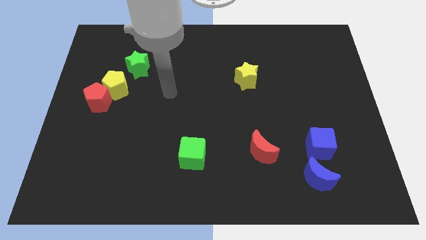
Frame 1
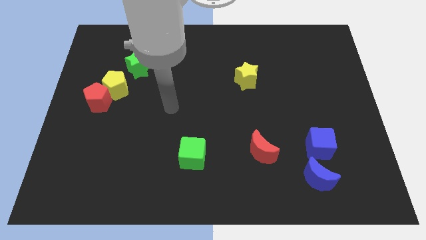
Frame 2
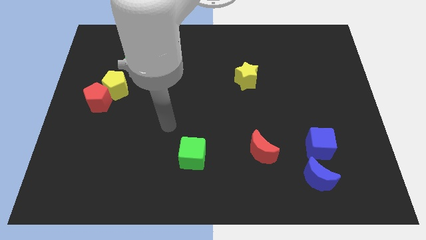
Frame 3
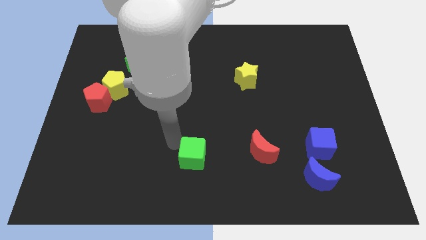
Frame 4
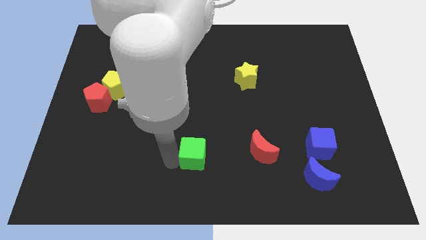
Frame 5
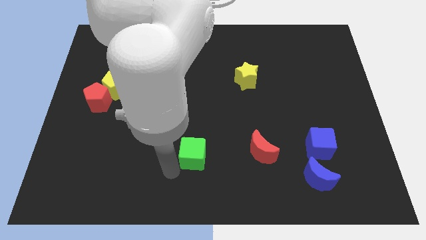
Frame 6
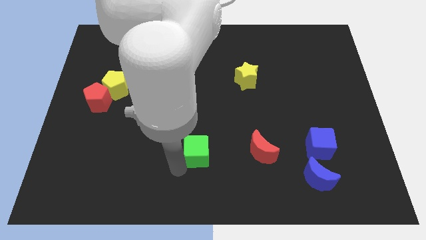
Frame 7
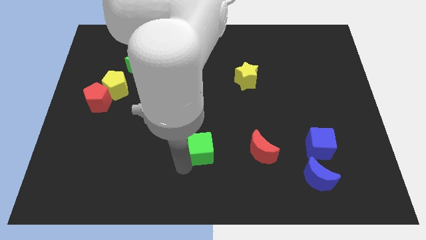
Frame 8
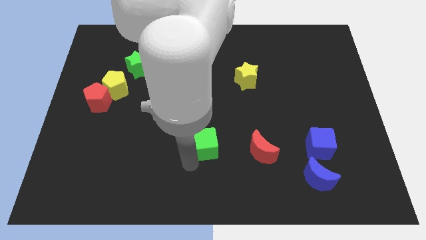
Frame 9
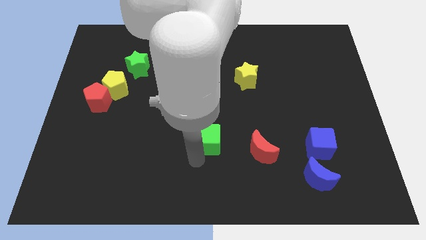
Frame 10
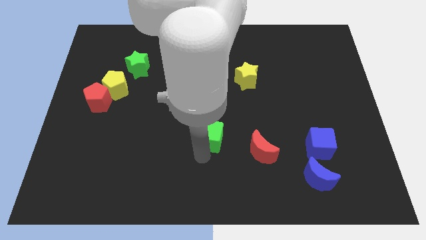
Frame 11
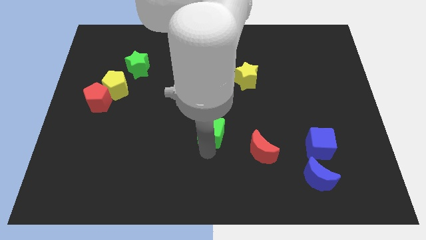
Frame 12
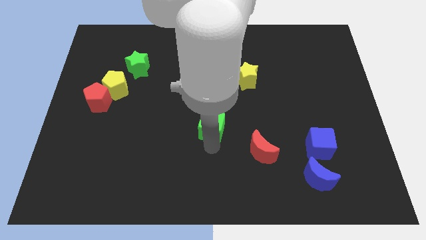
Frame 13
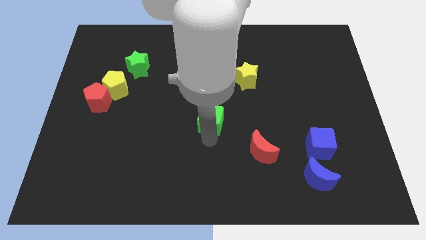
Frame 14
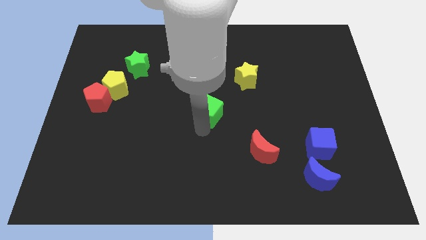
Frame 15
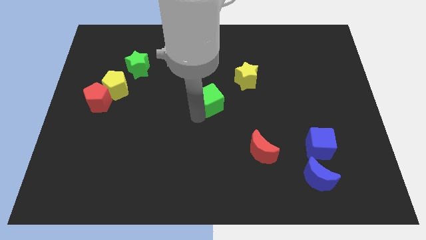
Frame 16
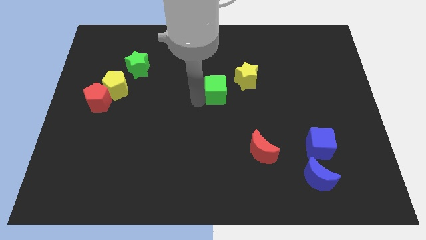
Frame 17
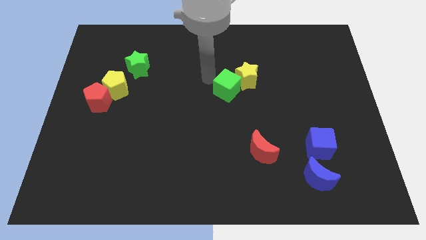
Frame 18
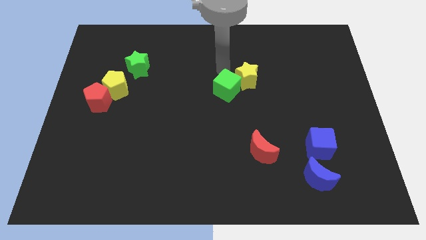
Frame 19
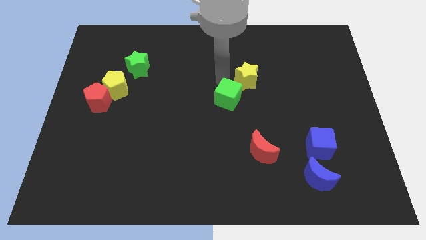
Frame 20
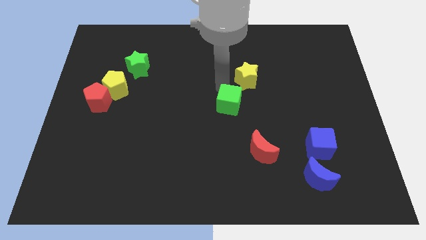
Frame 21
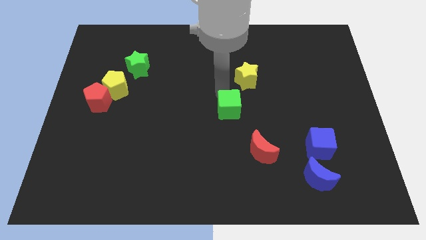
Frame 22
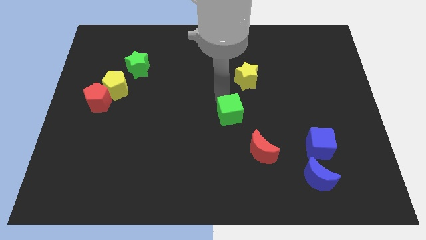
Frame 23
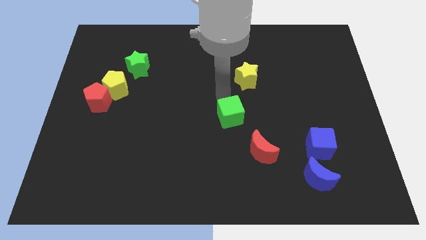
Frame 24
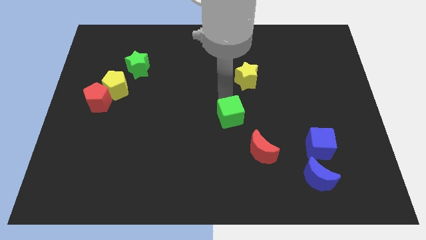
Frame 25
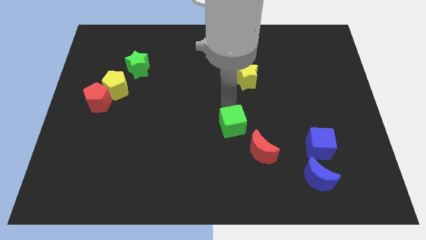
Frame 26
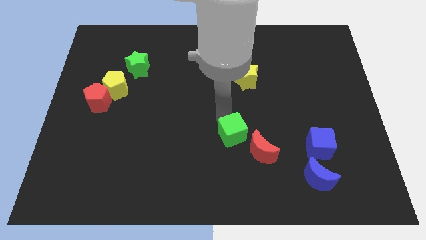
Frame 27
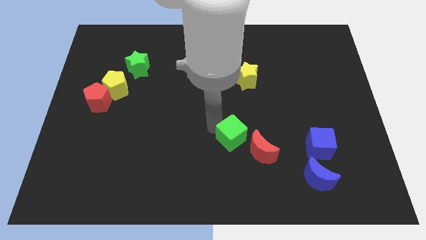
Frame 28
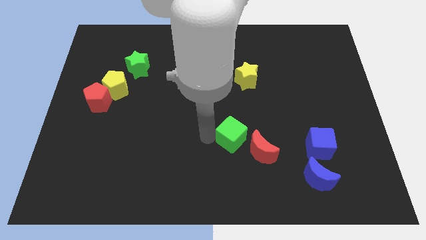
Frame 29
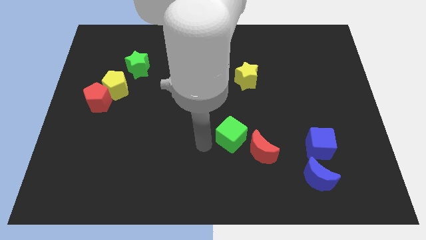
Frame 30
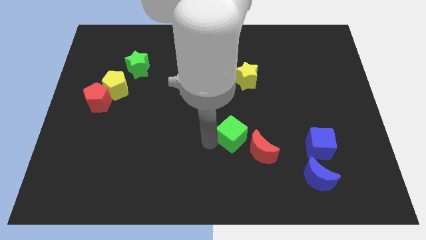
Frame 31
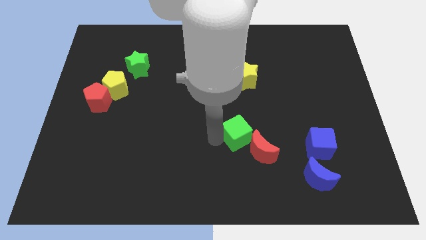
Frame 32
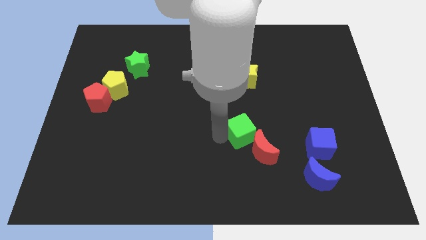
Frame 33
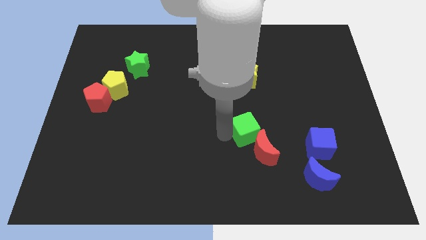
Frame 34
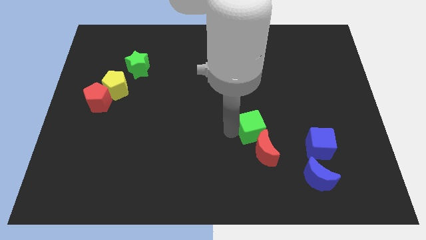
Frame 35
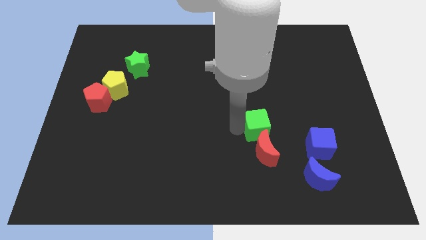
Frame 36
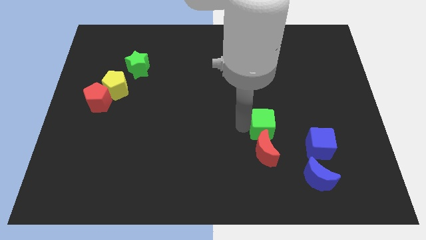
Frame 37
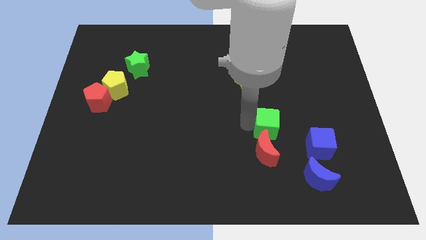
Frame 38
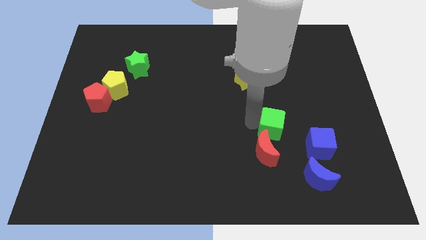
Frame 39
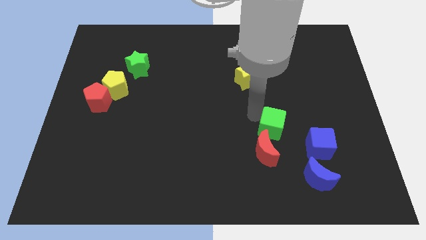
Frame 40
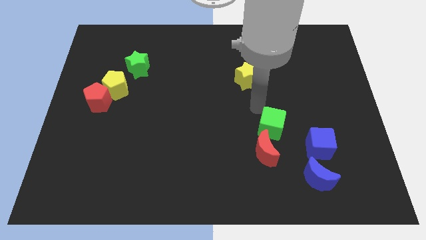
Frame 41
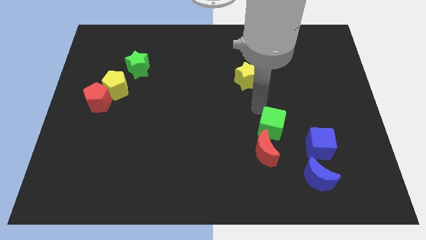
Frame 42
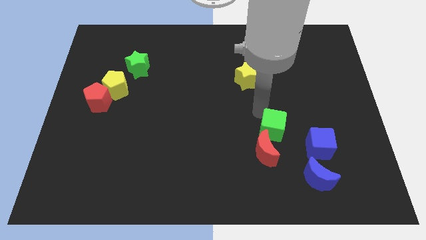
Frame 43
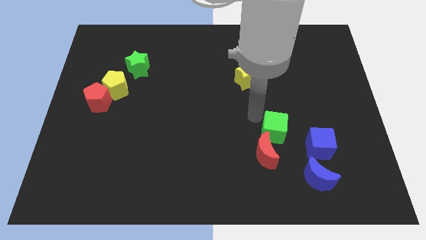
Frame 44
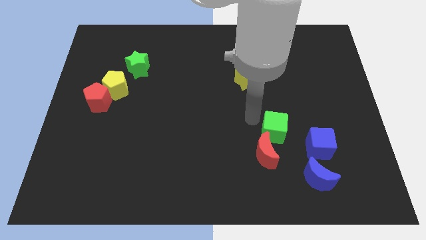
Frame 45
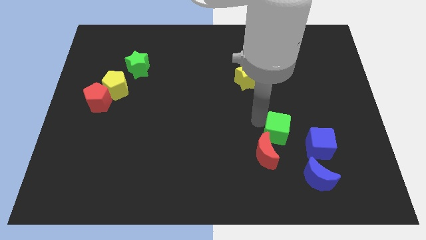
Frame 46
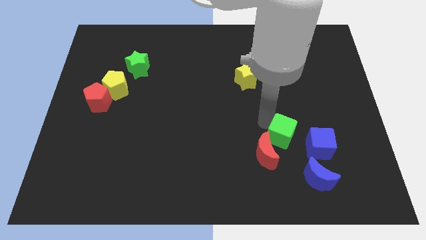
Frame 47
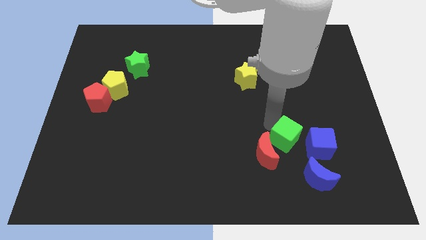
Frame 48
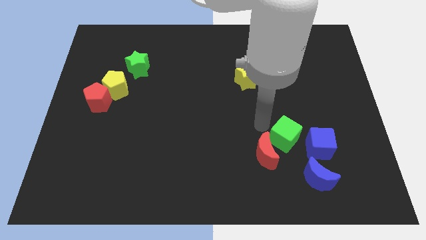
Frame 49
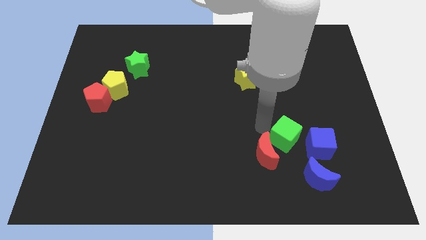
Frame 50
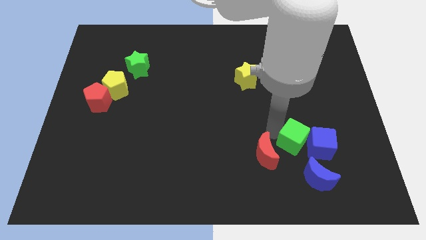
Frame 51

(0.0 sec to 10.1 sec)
move the green cube next to the blue cube

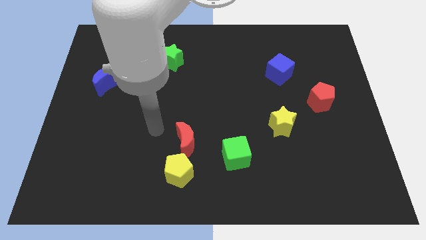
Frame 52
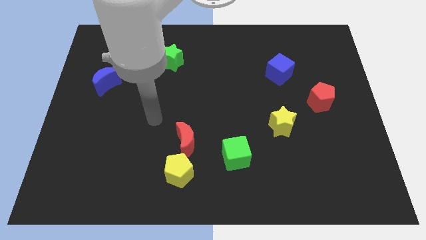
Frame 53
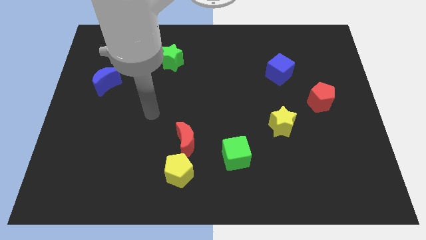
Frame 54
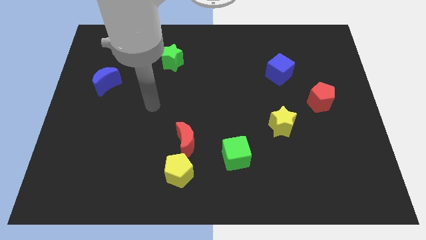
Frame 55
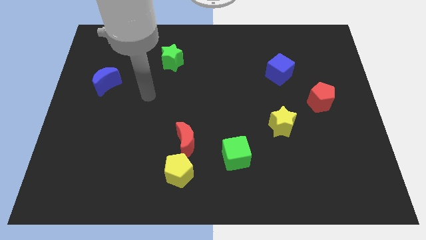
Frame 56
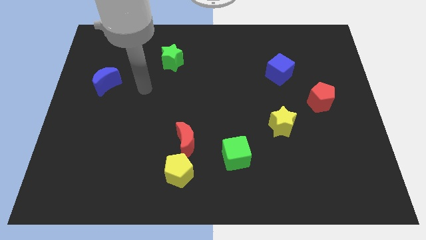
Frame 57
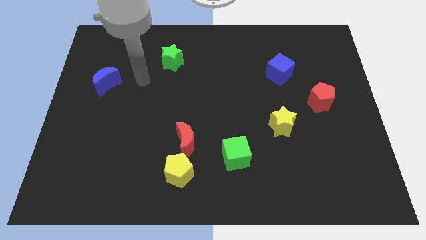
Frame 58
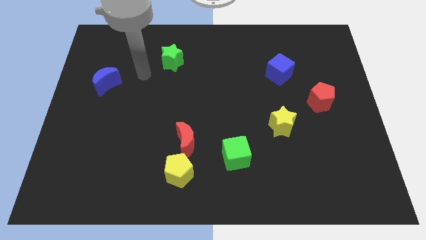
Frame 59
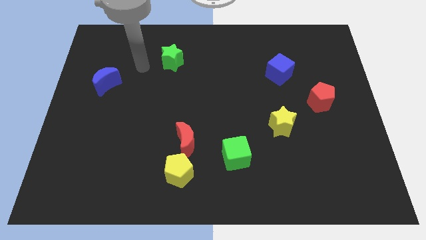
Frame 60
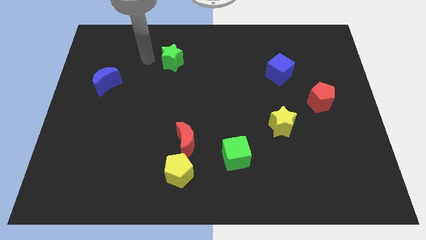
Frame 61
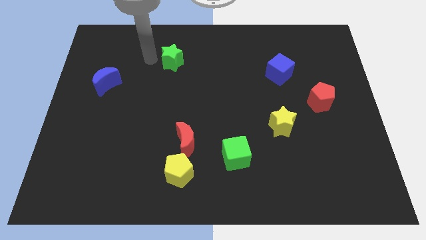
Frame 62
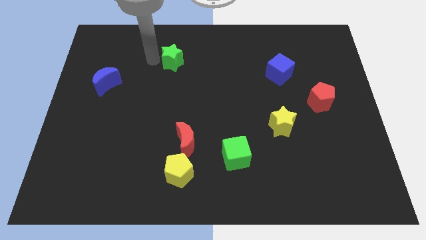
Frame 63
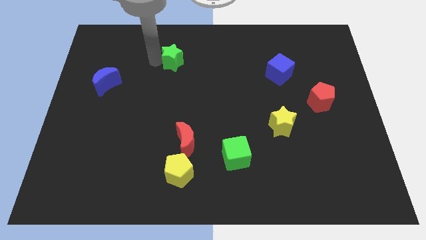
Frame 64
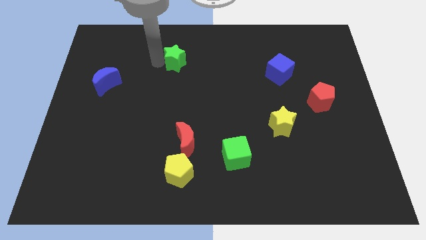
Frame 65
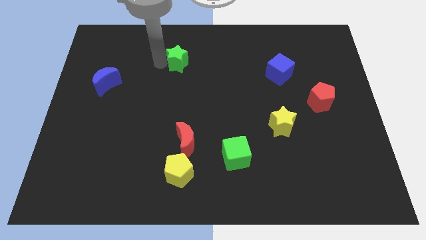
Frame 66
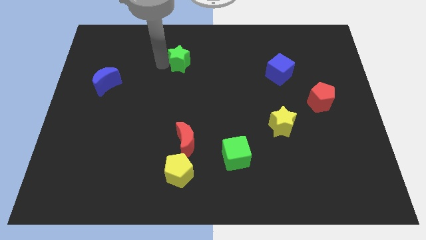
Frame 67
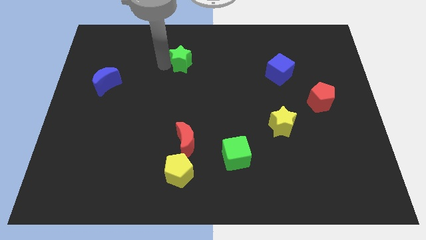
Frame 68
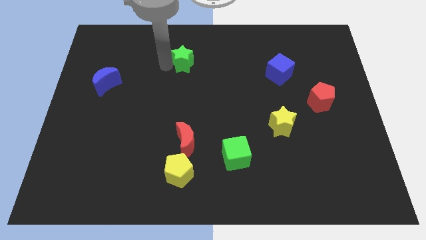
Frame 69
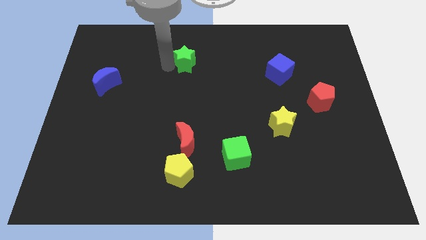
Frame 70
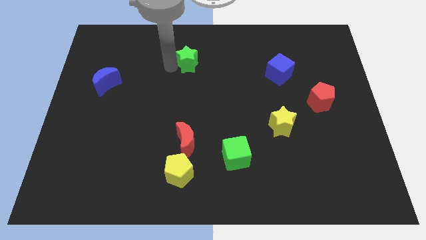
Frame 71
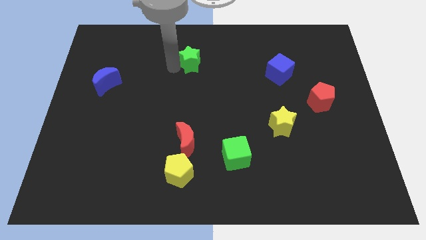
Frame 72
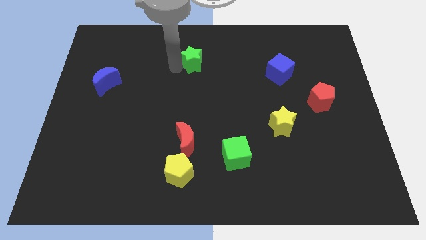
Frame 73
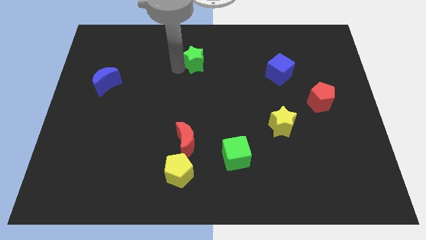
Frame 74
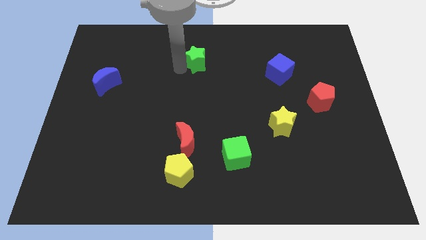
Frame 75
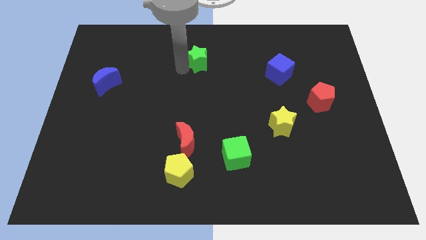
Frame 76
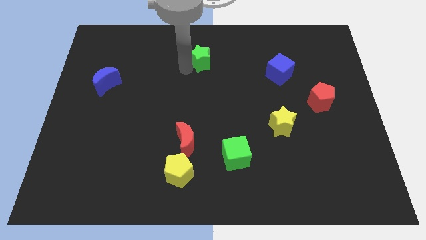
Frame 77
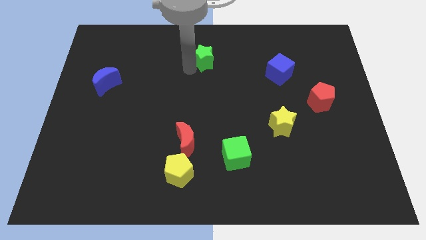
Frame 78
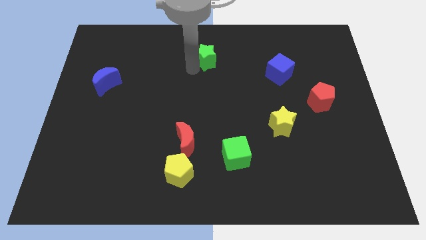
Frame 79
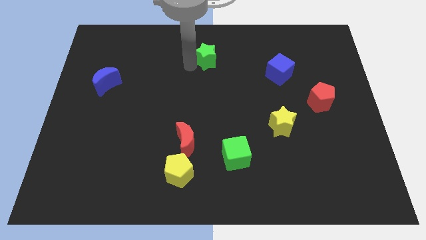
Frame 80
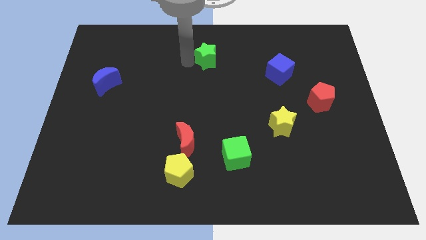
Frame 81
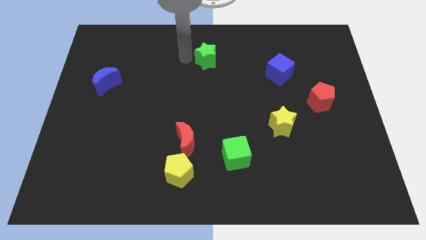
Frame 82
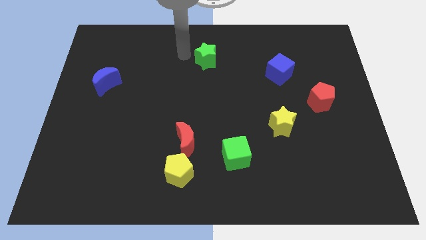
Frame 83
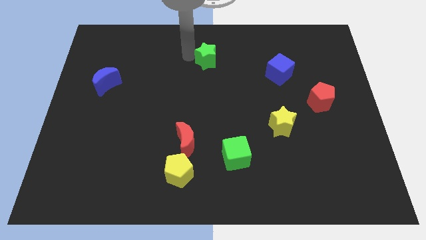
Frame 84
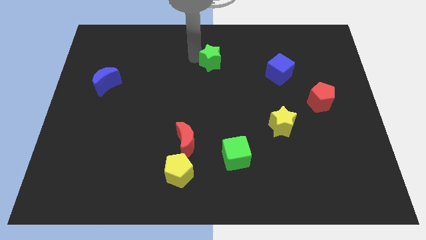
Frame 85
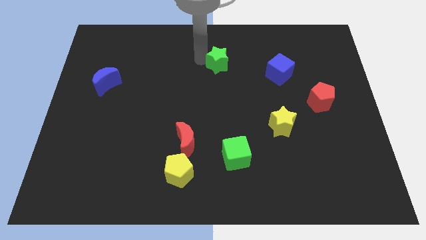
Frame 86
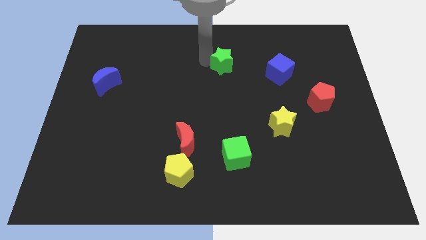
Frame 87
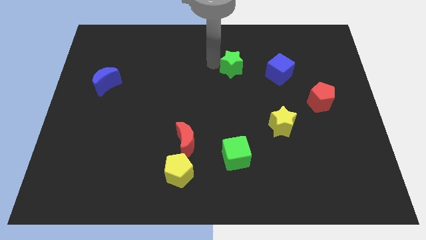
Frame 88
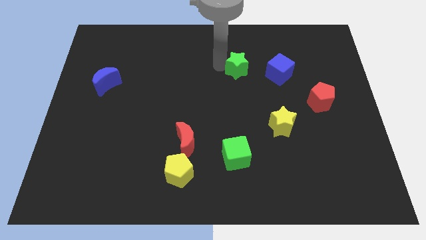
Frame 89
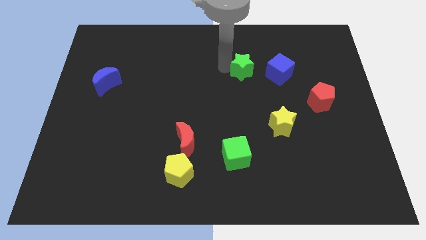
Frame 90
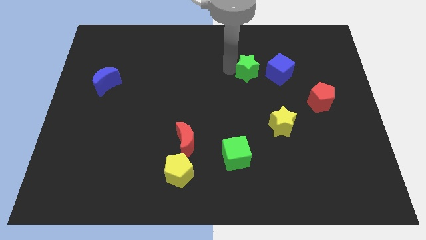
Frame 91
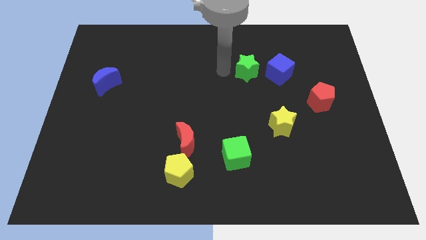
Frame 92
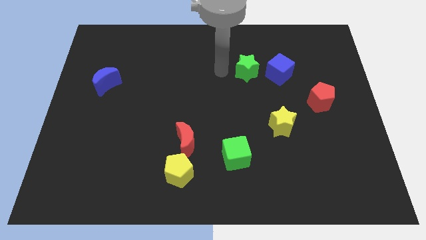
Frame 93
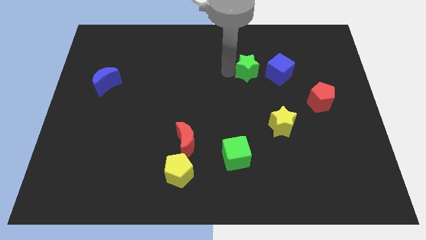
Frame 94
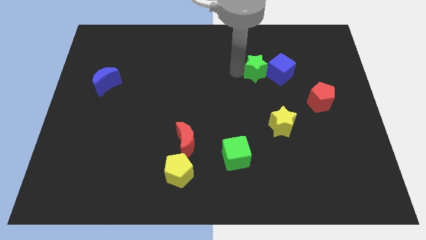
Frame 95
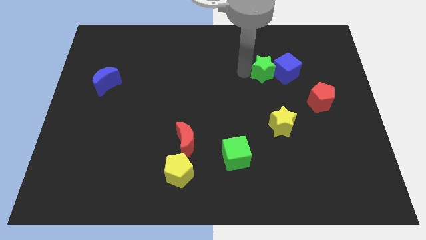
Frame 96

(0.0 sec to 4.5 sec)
put the green star close to the blue cube
